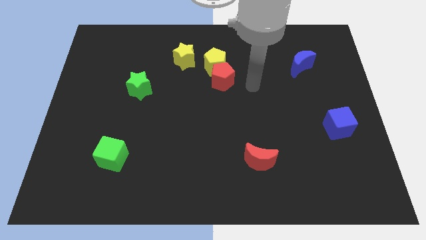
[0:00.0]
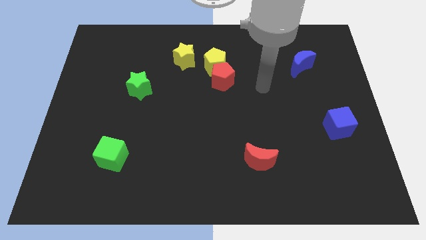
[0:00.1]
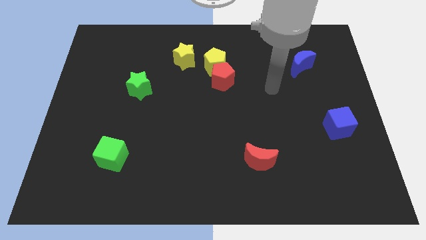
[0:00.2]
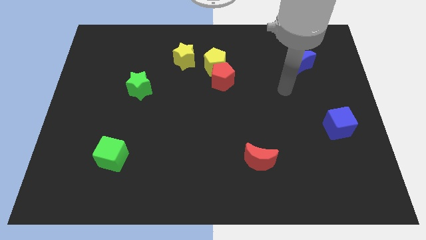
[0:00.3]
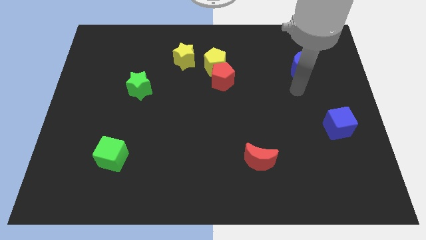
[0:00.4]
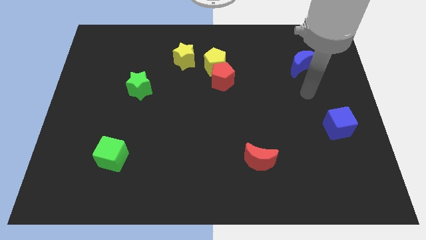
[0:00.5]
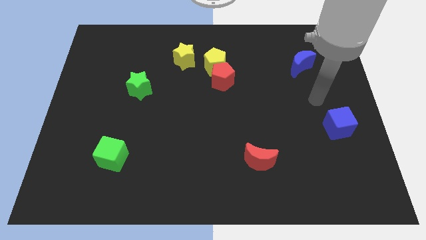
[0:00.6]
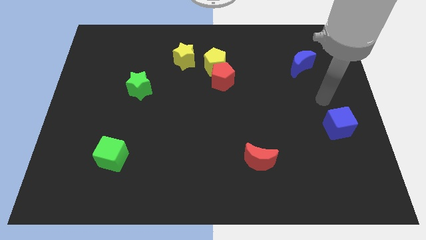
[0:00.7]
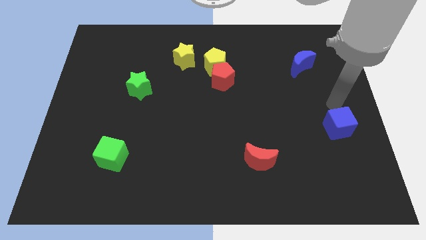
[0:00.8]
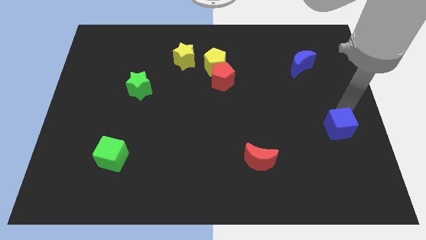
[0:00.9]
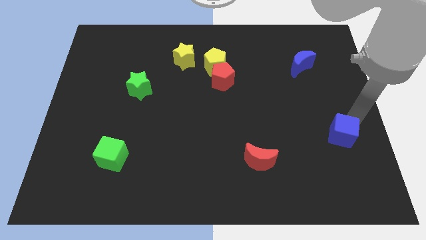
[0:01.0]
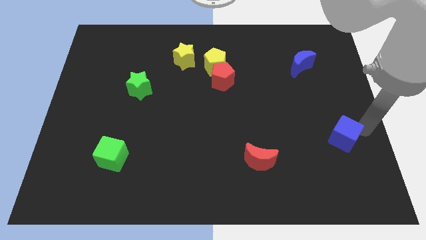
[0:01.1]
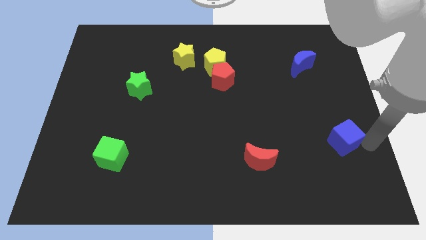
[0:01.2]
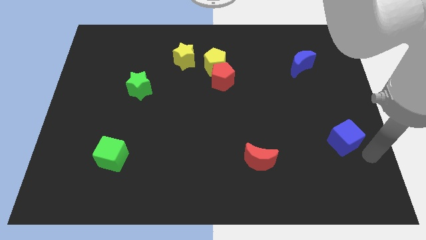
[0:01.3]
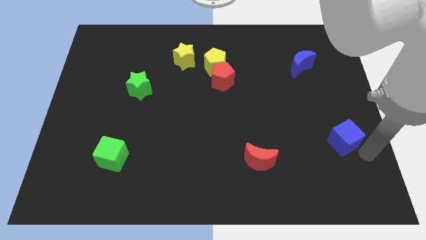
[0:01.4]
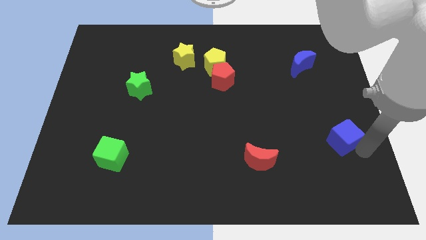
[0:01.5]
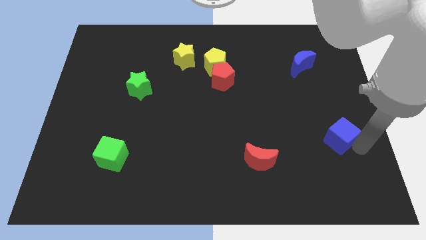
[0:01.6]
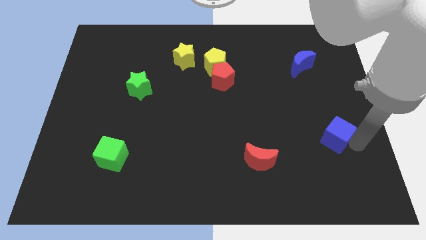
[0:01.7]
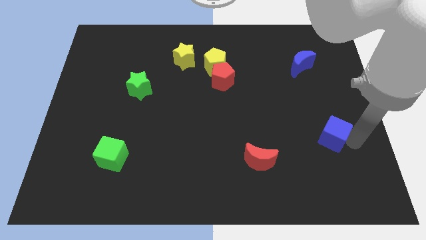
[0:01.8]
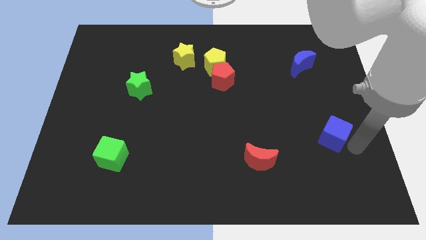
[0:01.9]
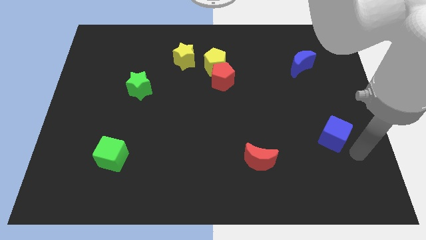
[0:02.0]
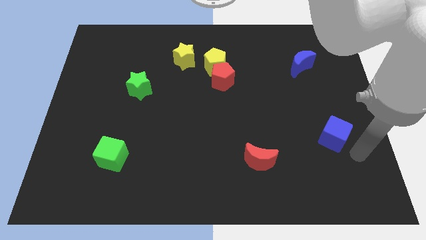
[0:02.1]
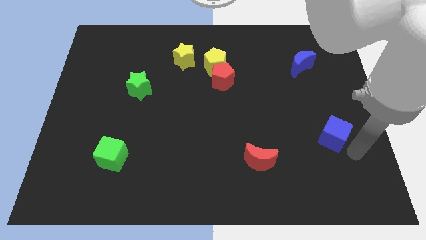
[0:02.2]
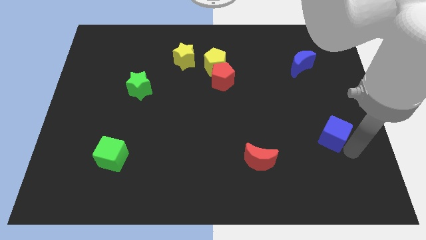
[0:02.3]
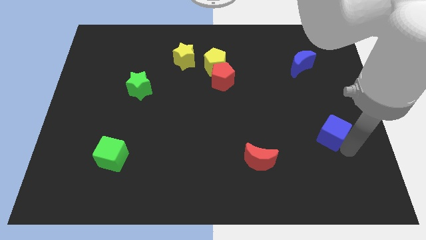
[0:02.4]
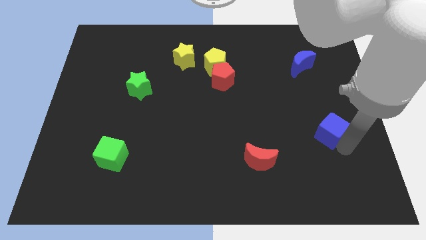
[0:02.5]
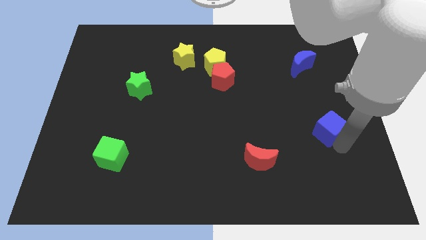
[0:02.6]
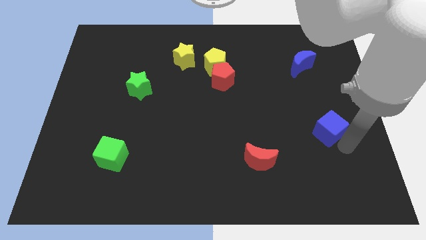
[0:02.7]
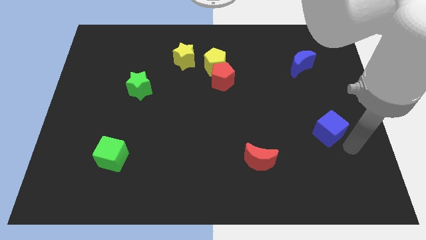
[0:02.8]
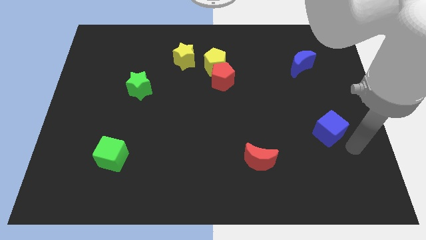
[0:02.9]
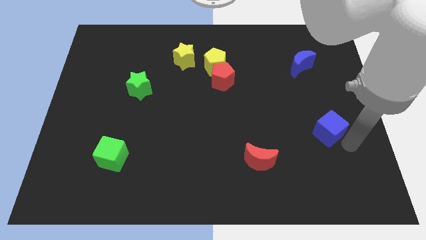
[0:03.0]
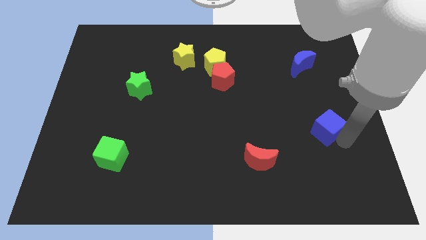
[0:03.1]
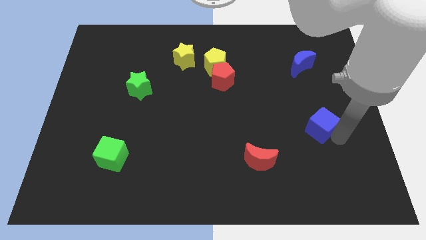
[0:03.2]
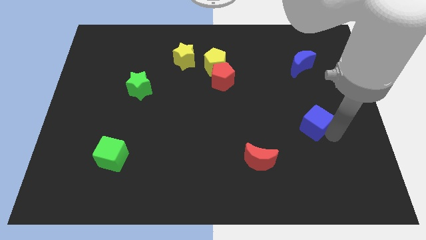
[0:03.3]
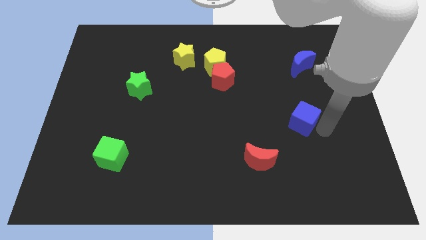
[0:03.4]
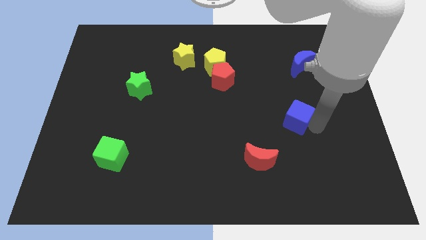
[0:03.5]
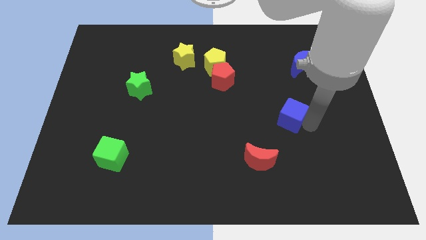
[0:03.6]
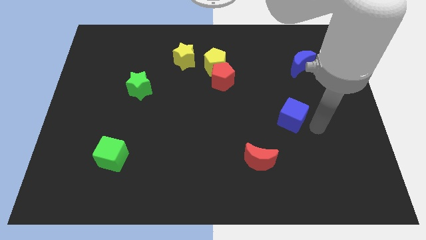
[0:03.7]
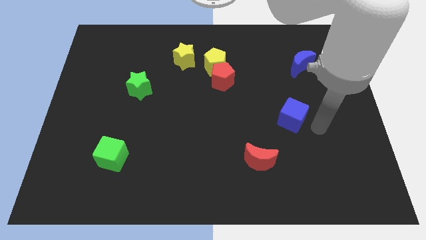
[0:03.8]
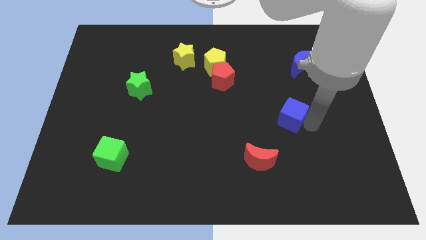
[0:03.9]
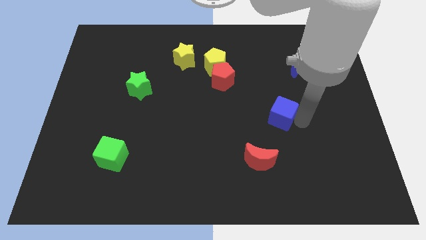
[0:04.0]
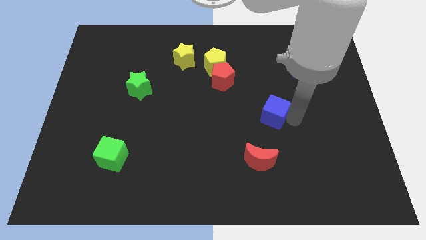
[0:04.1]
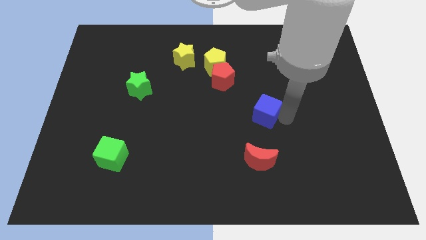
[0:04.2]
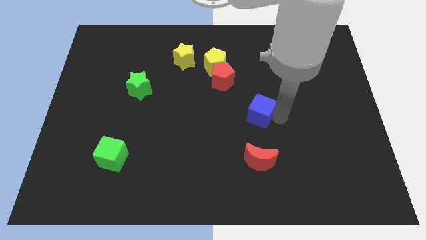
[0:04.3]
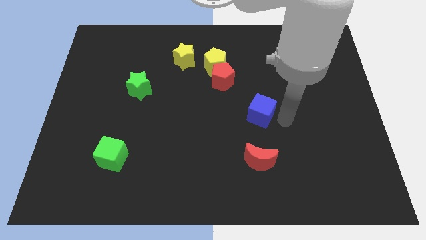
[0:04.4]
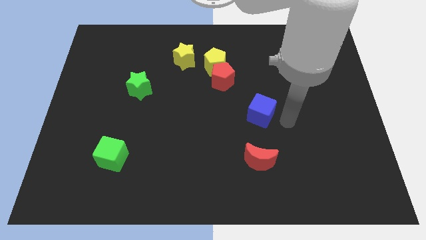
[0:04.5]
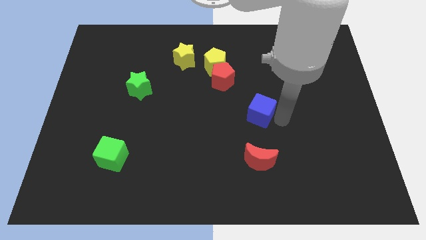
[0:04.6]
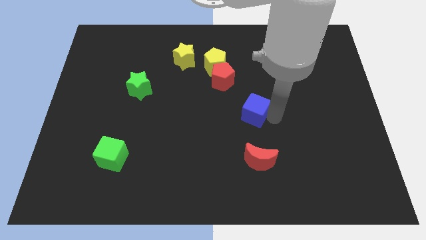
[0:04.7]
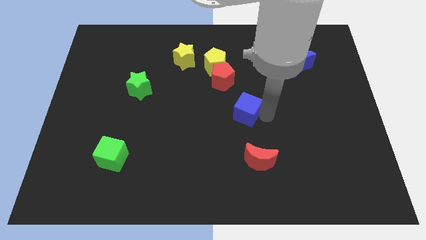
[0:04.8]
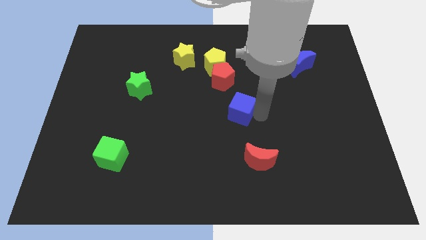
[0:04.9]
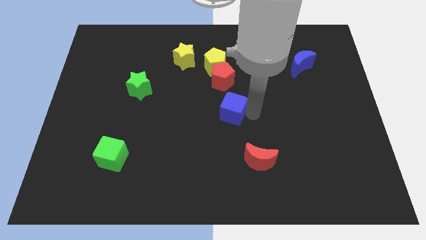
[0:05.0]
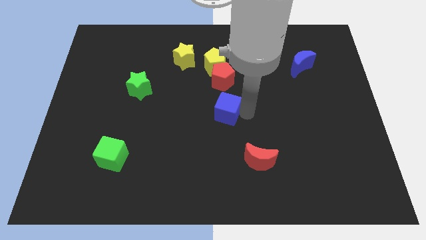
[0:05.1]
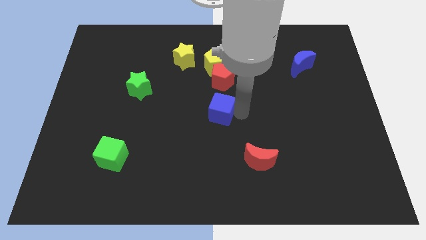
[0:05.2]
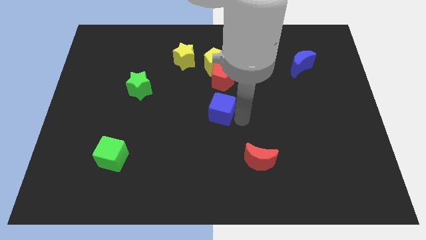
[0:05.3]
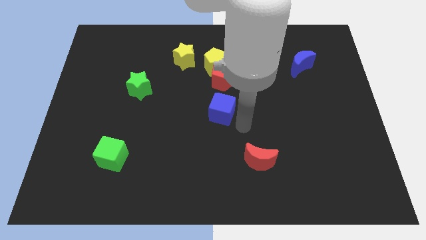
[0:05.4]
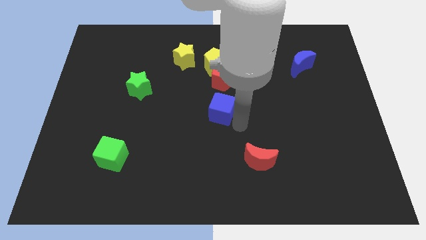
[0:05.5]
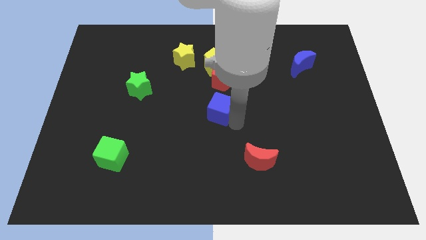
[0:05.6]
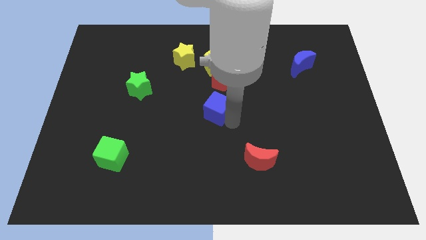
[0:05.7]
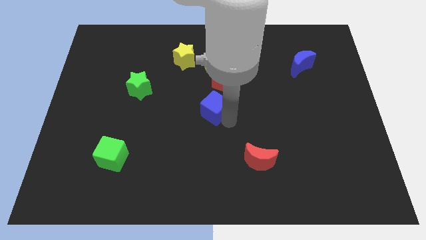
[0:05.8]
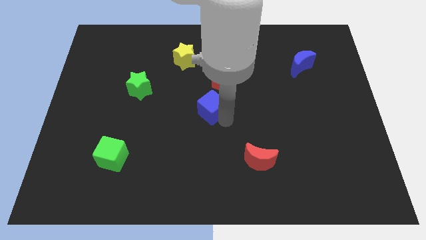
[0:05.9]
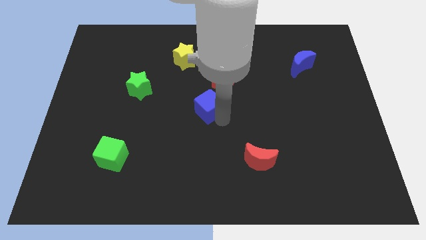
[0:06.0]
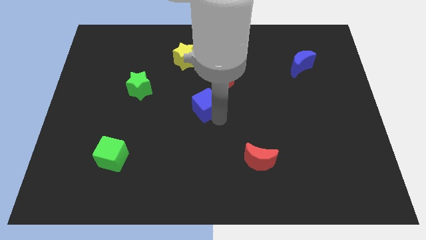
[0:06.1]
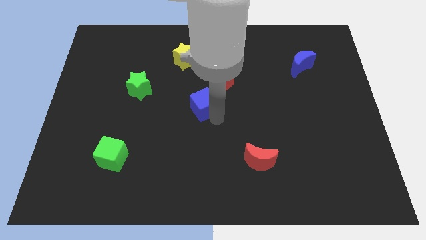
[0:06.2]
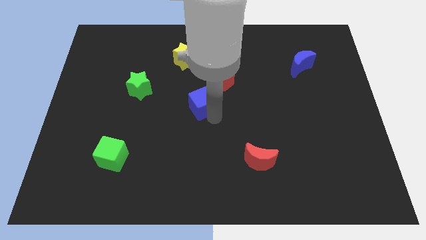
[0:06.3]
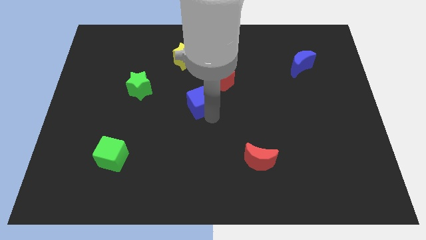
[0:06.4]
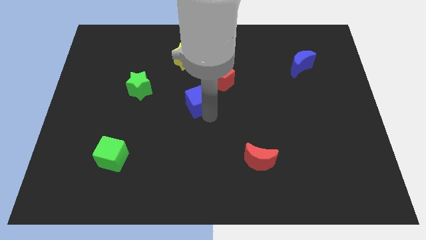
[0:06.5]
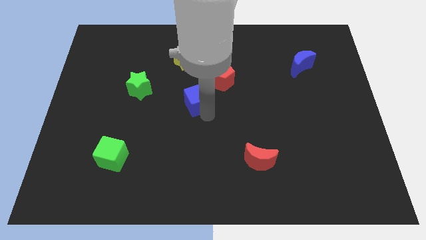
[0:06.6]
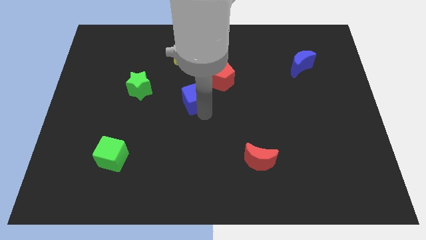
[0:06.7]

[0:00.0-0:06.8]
push the blue cube to the right side of the green star

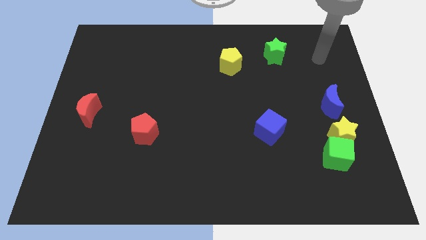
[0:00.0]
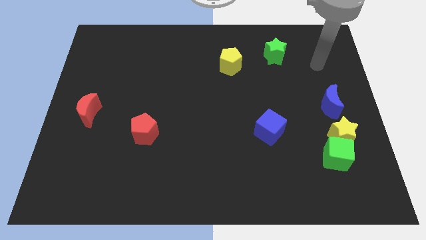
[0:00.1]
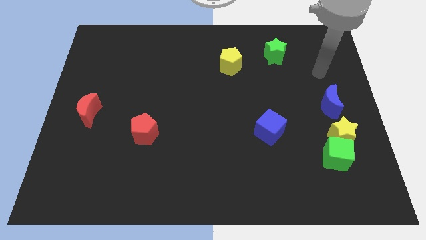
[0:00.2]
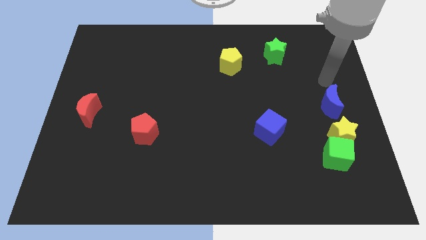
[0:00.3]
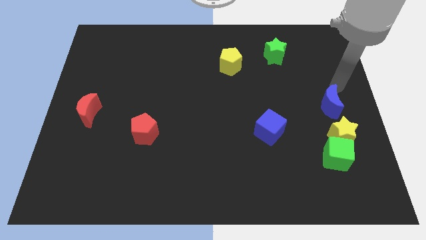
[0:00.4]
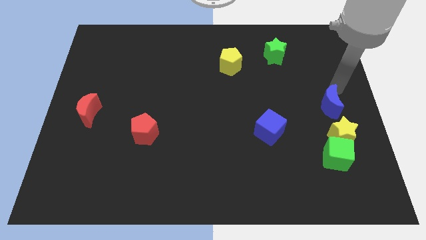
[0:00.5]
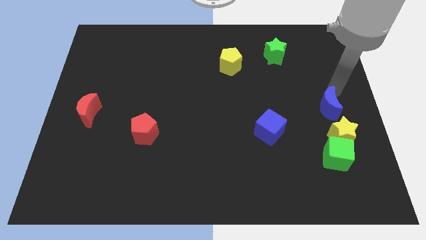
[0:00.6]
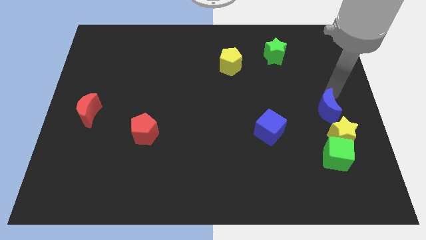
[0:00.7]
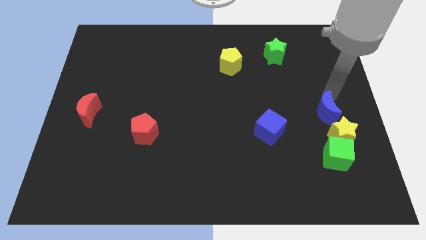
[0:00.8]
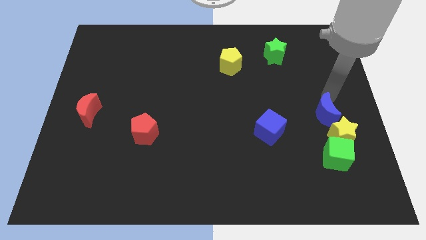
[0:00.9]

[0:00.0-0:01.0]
slide the blue moon to the right of the blue cube

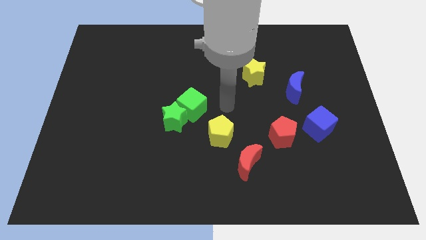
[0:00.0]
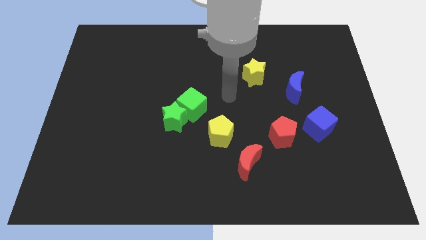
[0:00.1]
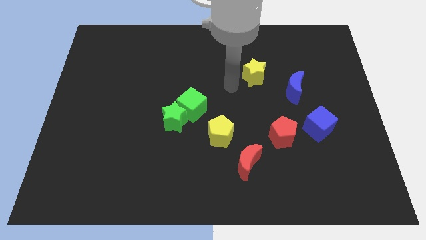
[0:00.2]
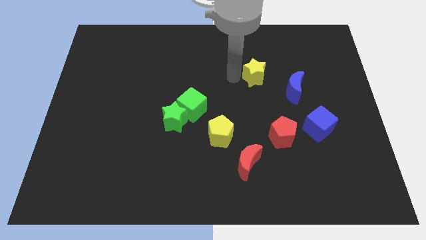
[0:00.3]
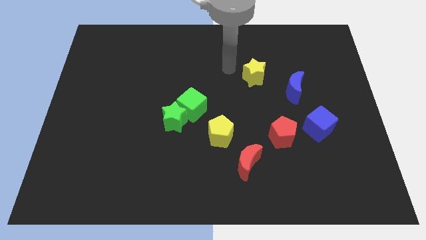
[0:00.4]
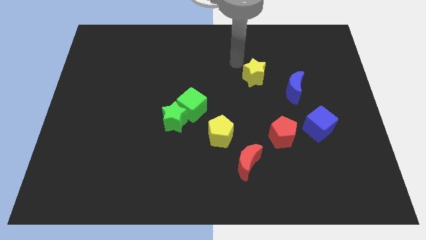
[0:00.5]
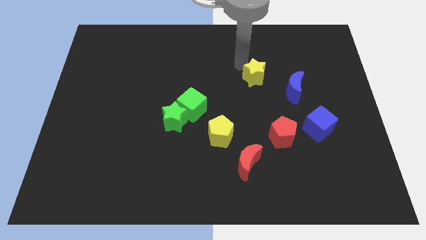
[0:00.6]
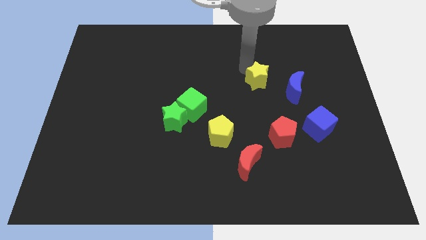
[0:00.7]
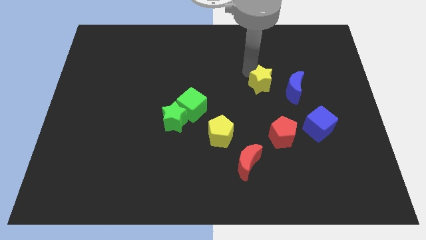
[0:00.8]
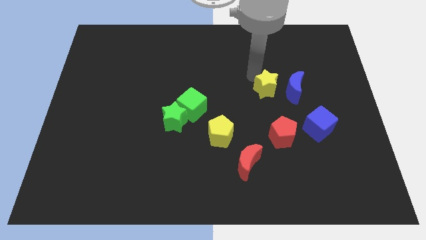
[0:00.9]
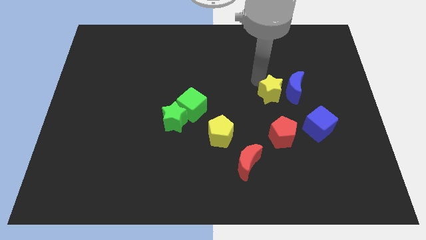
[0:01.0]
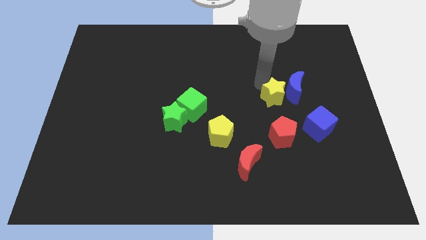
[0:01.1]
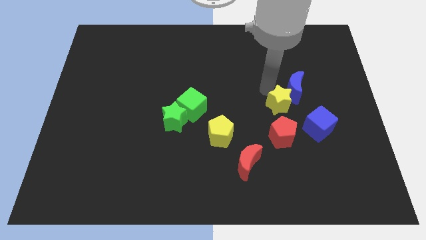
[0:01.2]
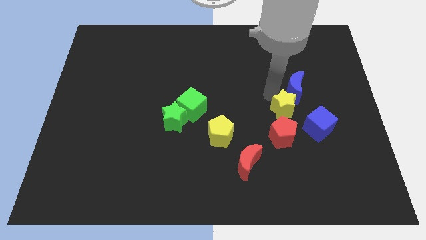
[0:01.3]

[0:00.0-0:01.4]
push the yellow star to the top right of the red pentagon
